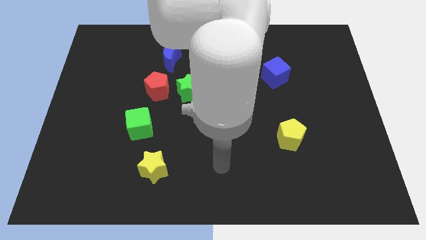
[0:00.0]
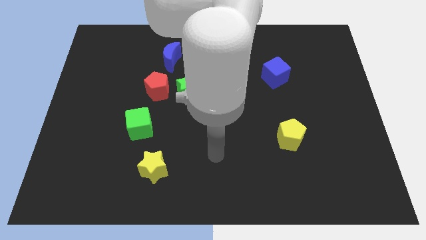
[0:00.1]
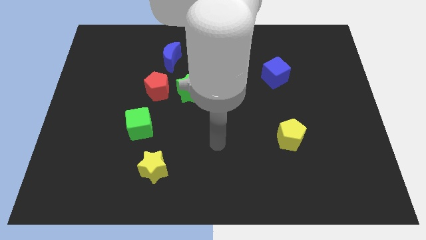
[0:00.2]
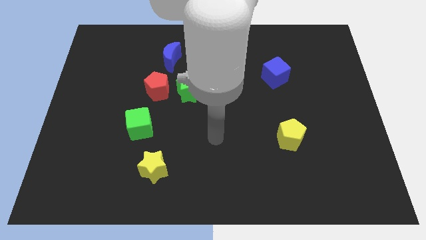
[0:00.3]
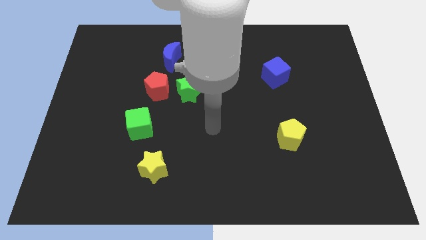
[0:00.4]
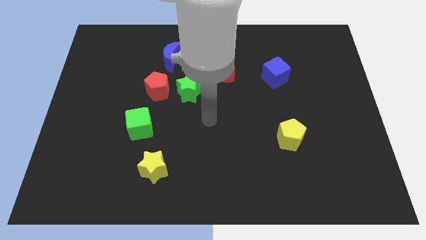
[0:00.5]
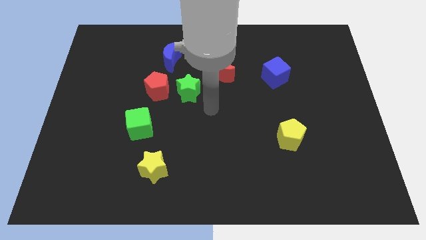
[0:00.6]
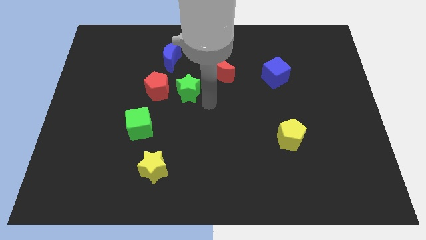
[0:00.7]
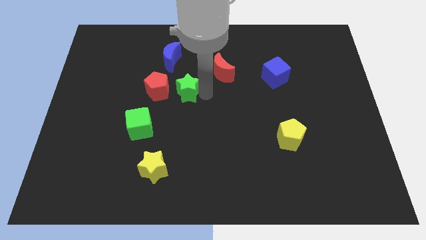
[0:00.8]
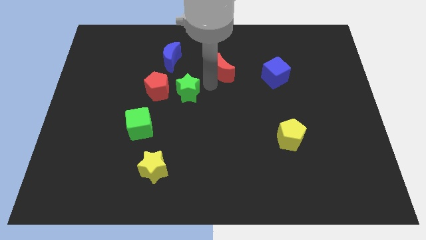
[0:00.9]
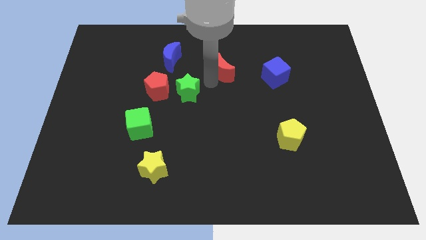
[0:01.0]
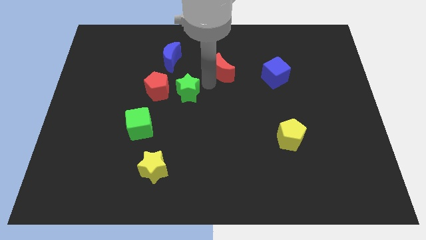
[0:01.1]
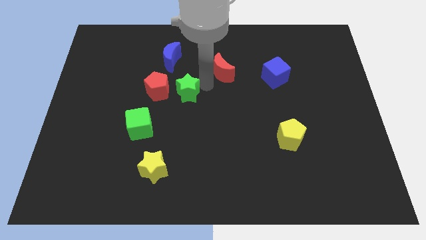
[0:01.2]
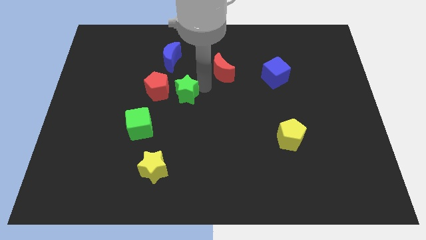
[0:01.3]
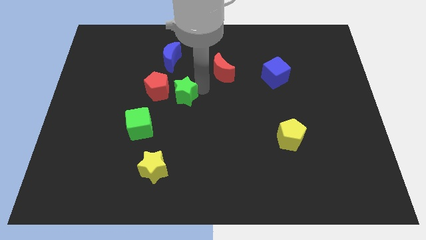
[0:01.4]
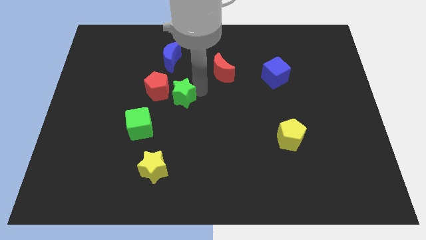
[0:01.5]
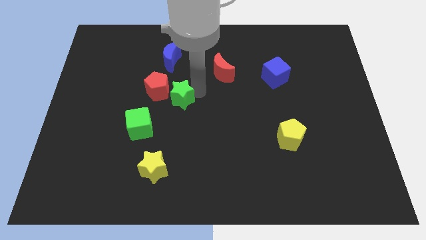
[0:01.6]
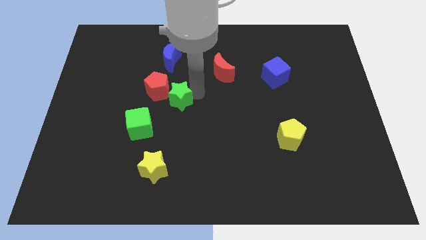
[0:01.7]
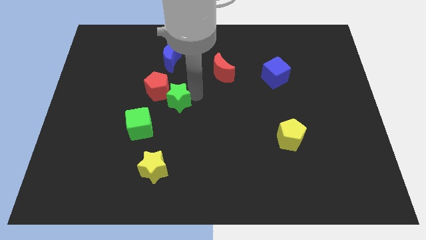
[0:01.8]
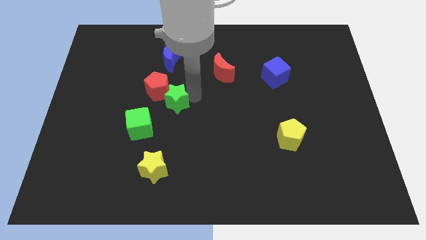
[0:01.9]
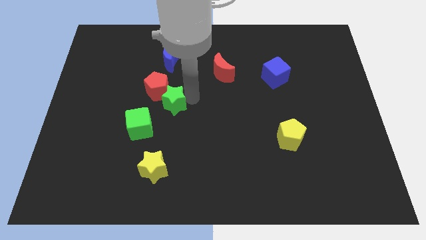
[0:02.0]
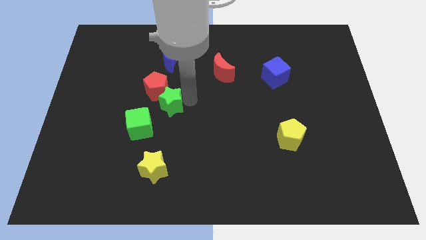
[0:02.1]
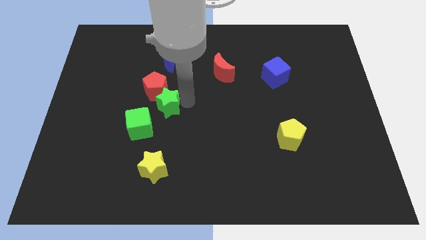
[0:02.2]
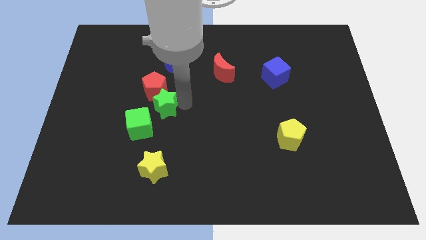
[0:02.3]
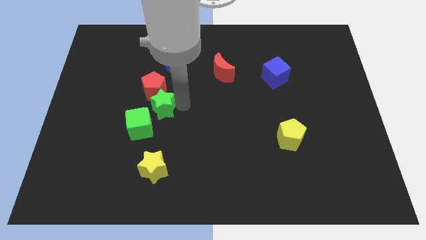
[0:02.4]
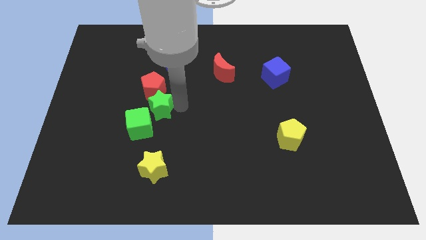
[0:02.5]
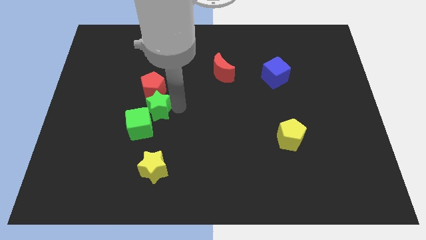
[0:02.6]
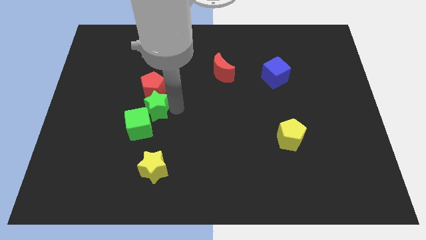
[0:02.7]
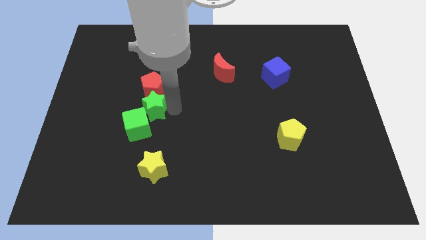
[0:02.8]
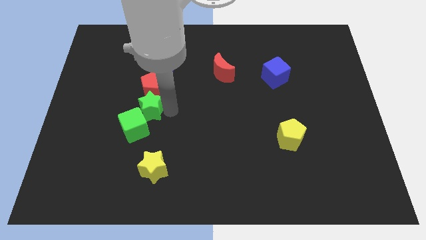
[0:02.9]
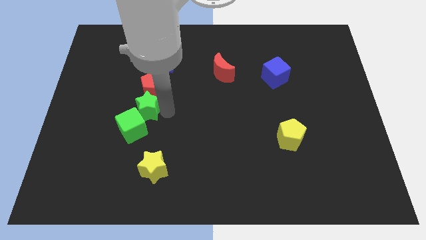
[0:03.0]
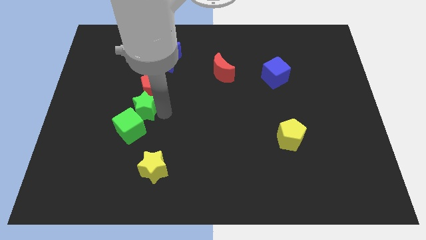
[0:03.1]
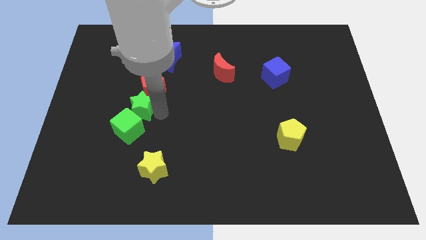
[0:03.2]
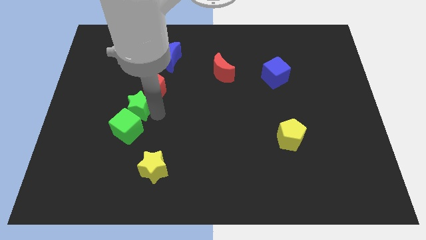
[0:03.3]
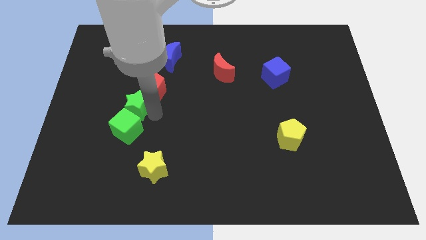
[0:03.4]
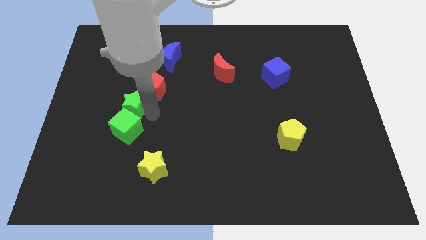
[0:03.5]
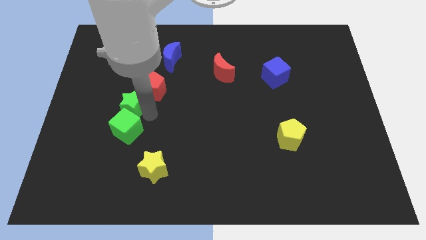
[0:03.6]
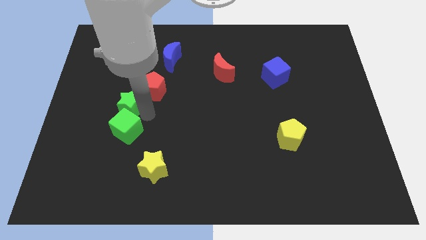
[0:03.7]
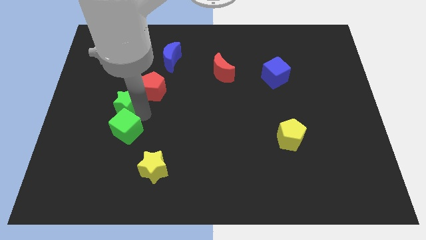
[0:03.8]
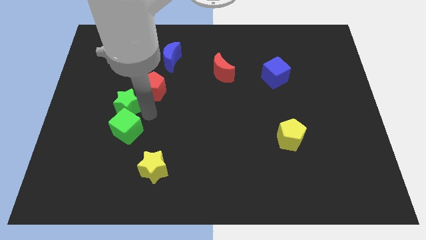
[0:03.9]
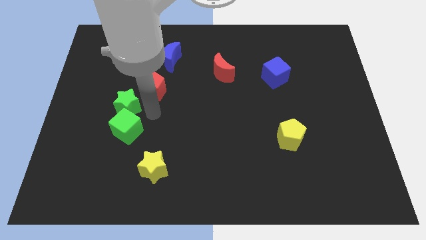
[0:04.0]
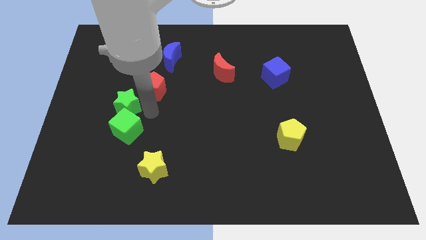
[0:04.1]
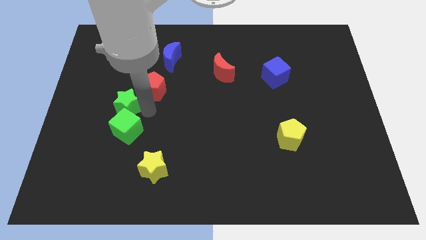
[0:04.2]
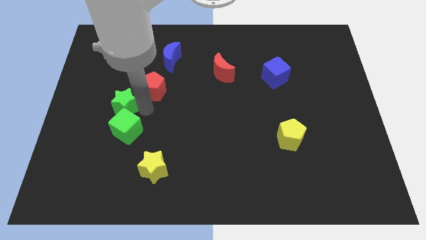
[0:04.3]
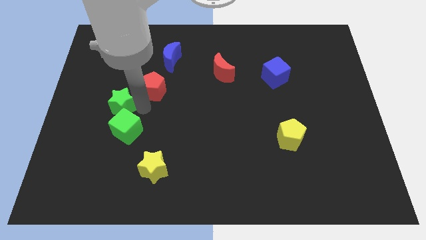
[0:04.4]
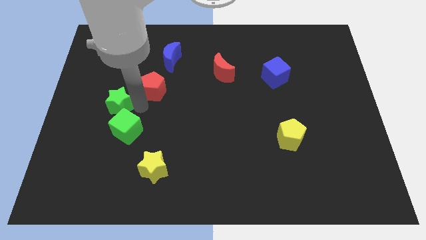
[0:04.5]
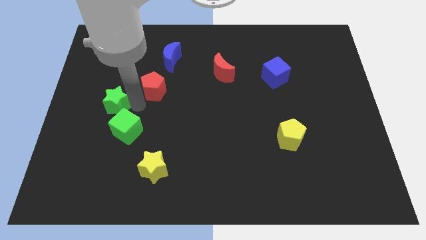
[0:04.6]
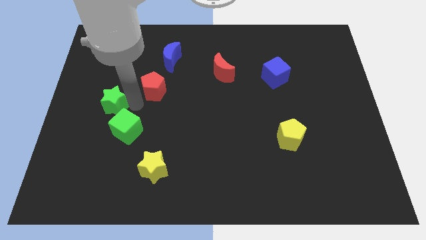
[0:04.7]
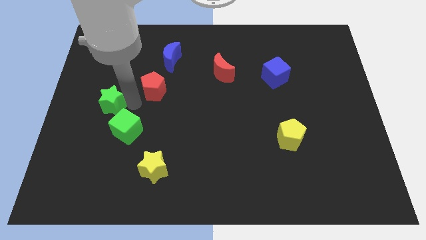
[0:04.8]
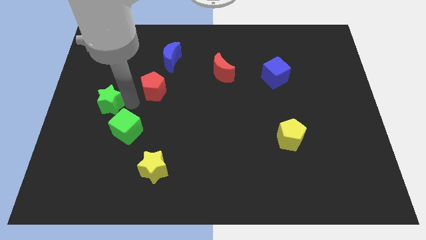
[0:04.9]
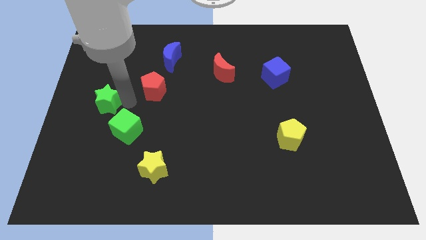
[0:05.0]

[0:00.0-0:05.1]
put the green star to the left side of the board

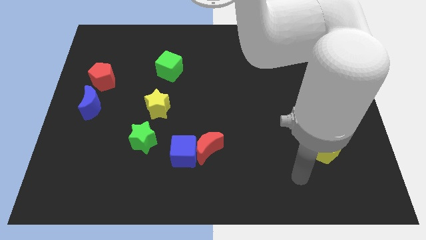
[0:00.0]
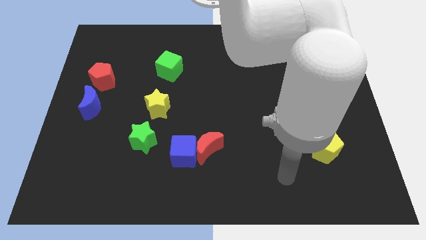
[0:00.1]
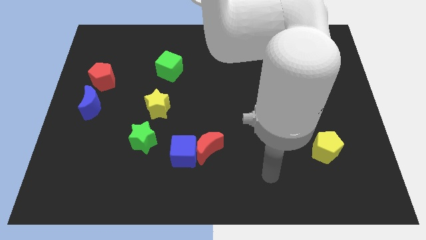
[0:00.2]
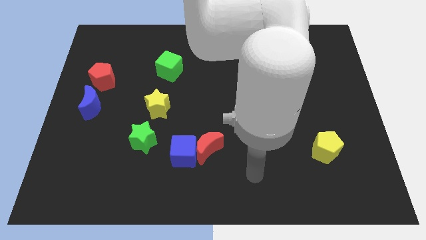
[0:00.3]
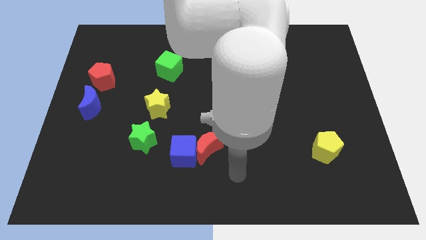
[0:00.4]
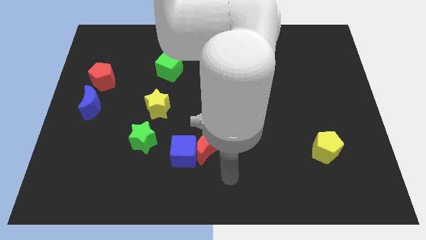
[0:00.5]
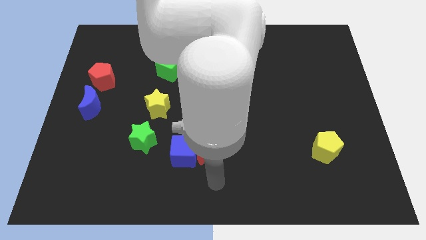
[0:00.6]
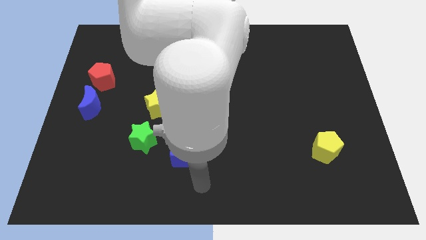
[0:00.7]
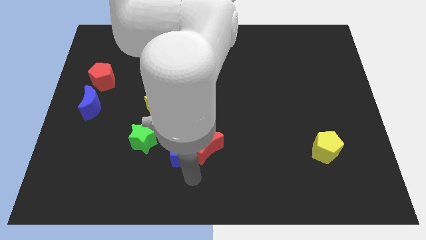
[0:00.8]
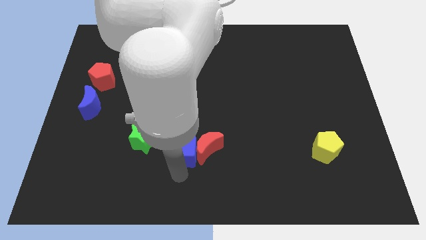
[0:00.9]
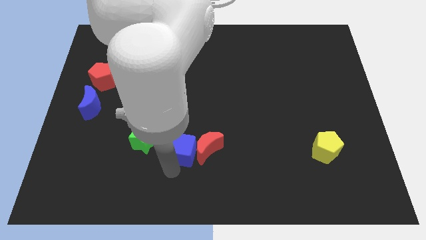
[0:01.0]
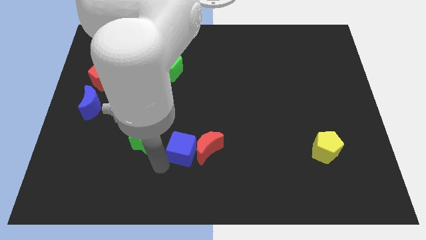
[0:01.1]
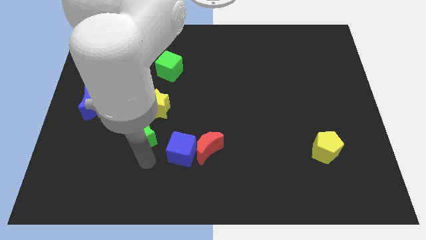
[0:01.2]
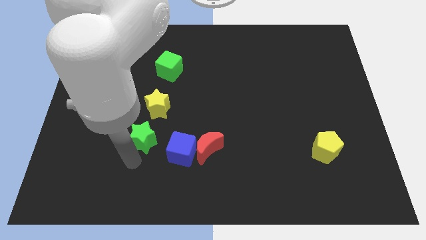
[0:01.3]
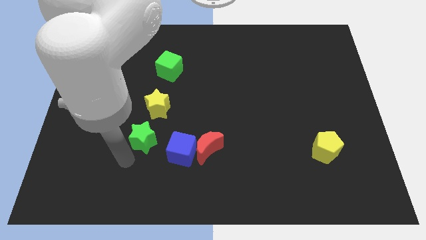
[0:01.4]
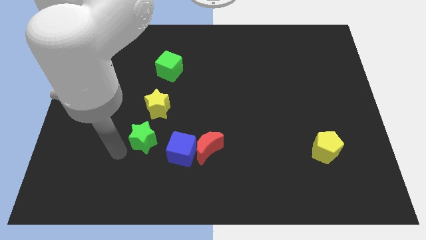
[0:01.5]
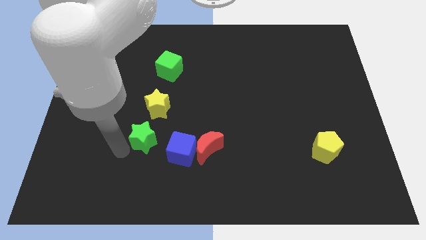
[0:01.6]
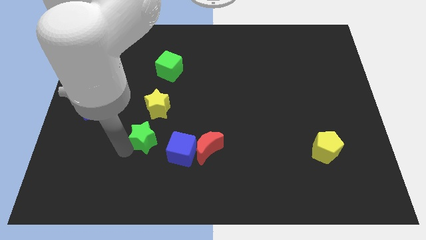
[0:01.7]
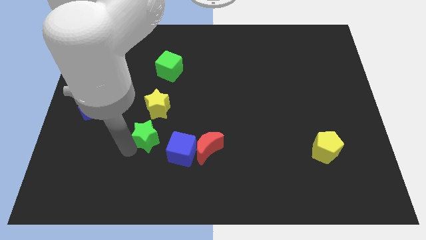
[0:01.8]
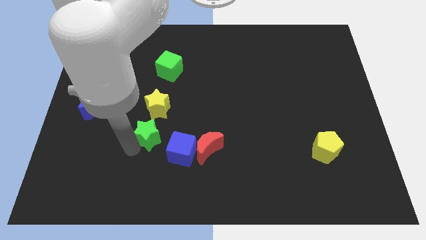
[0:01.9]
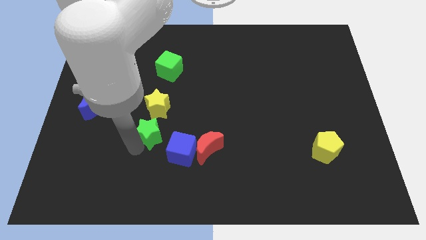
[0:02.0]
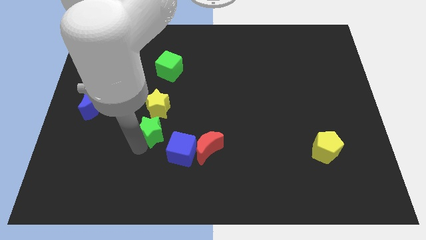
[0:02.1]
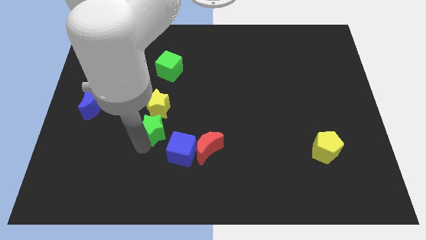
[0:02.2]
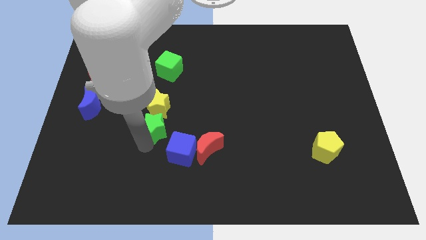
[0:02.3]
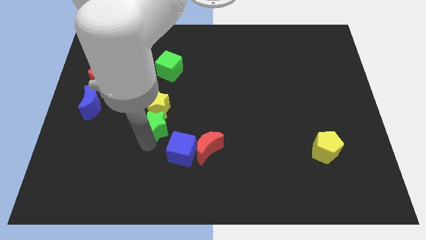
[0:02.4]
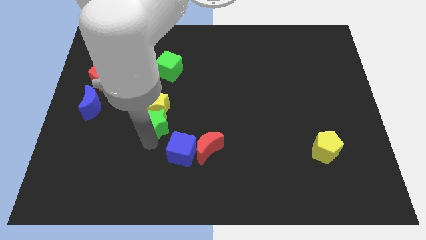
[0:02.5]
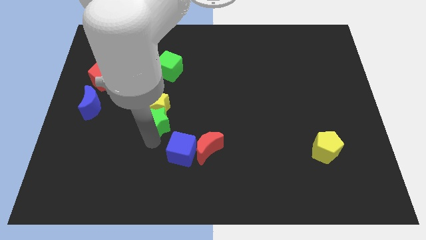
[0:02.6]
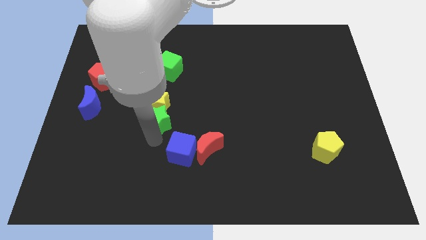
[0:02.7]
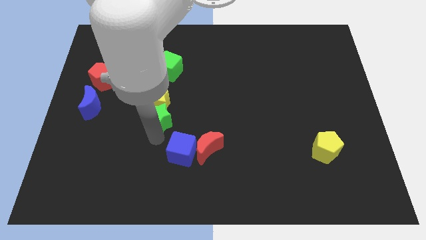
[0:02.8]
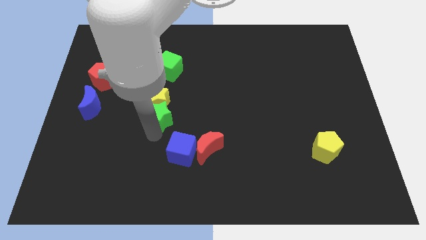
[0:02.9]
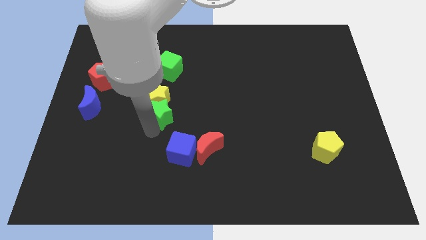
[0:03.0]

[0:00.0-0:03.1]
push the green star to the center
